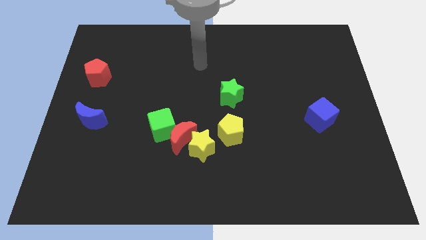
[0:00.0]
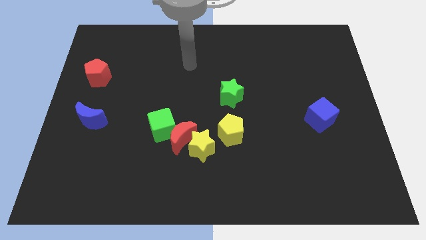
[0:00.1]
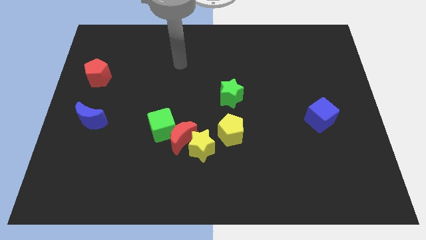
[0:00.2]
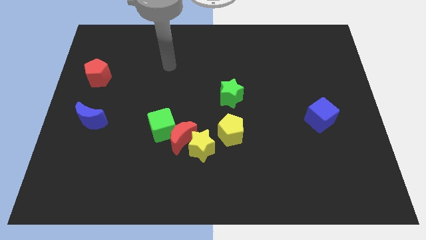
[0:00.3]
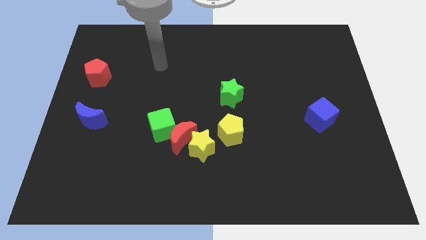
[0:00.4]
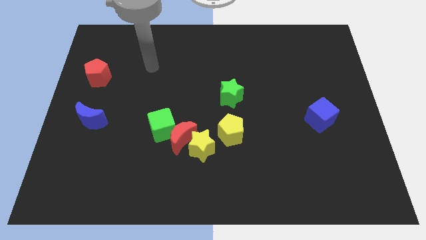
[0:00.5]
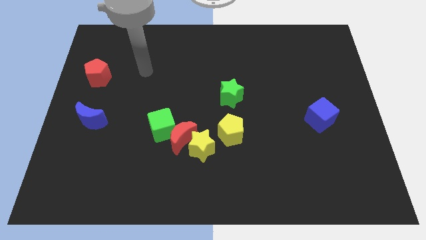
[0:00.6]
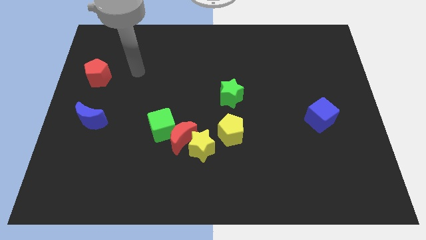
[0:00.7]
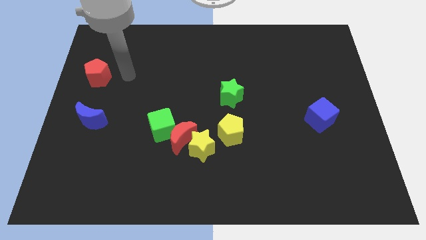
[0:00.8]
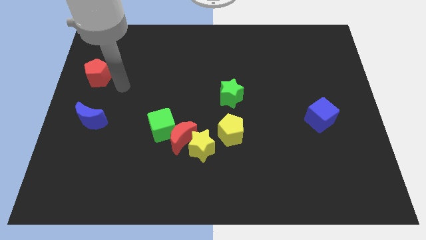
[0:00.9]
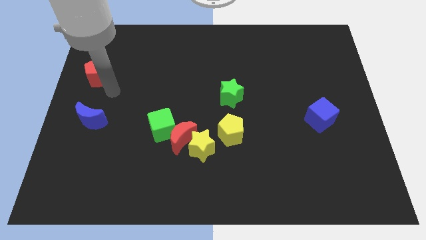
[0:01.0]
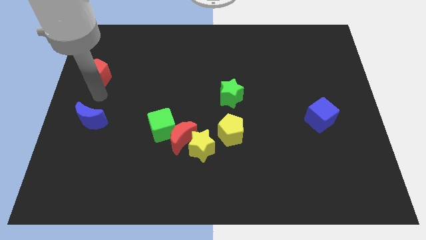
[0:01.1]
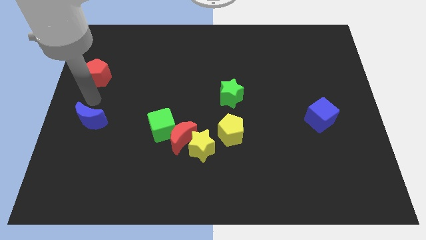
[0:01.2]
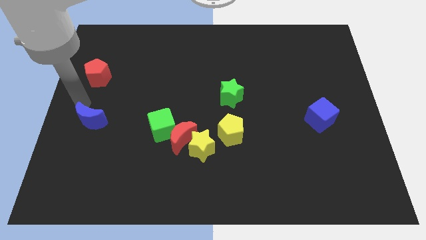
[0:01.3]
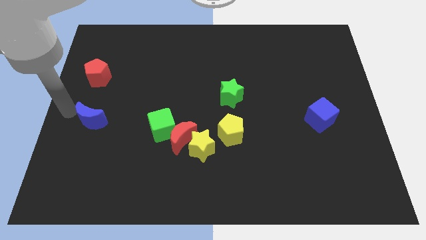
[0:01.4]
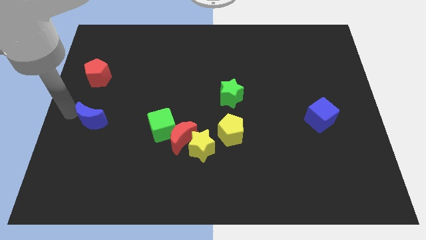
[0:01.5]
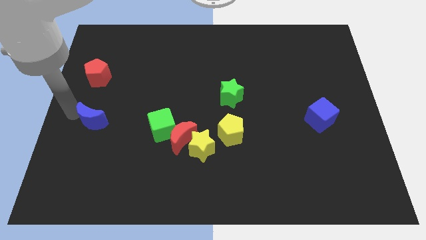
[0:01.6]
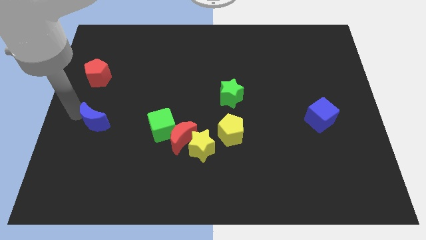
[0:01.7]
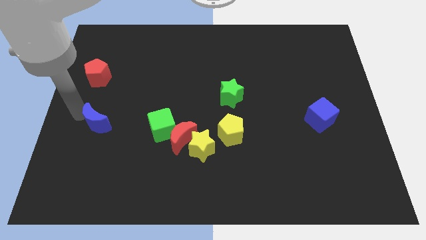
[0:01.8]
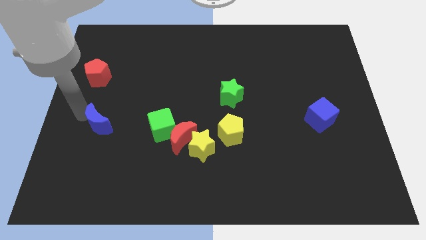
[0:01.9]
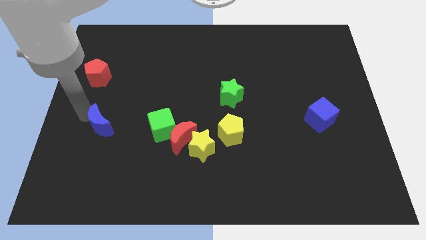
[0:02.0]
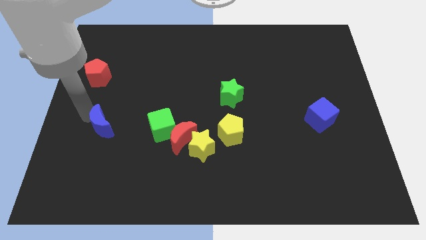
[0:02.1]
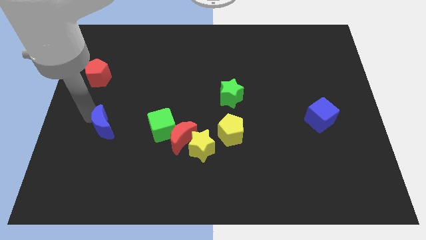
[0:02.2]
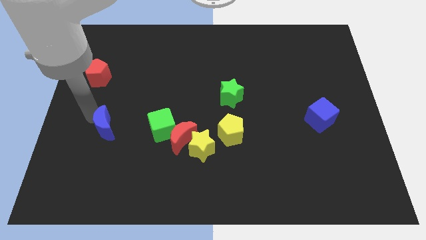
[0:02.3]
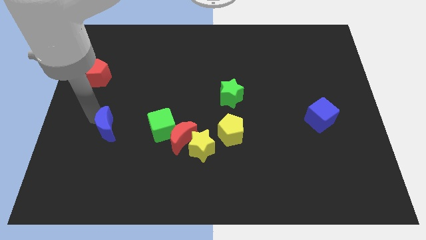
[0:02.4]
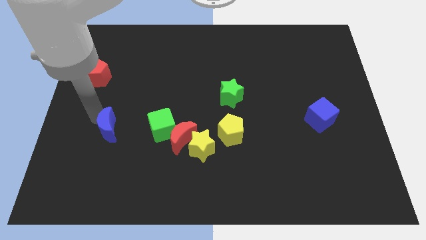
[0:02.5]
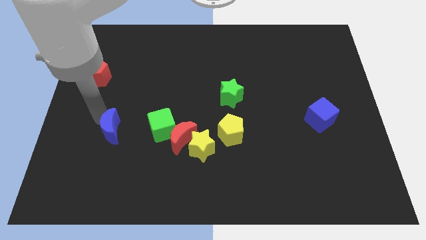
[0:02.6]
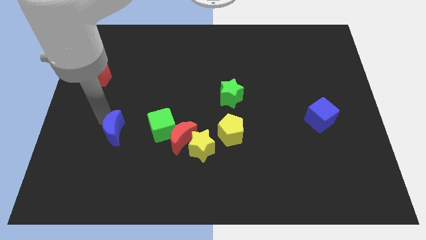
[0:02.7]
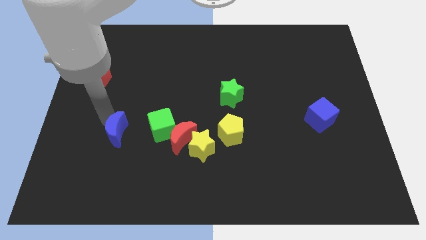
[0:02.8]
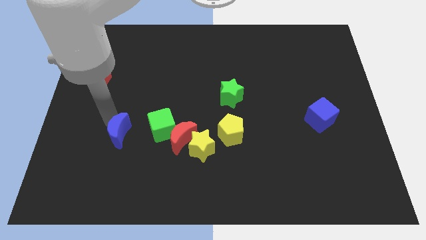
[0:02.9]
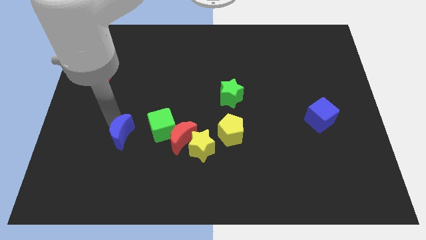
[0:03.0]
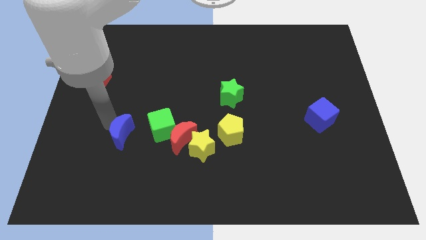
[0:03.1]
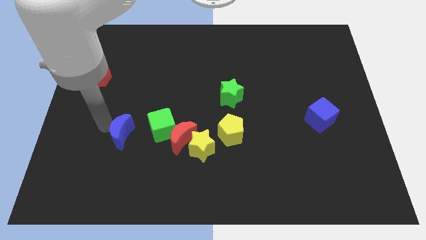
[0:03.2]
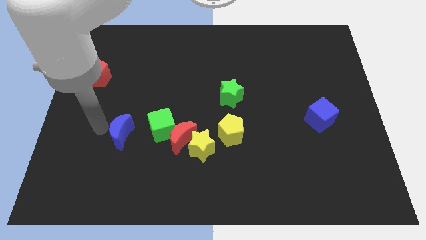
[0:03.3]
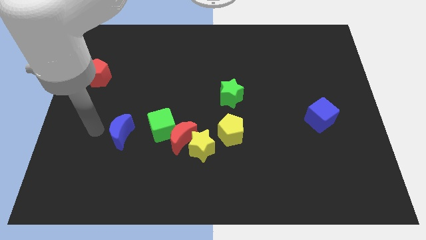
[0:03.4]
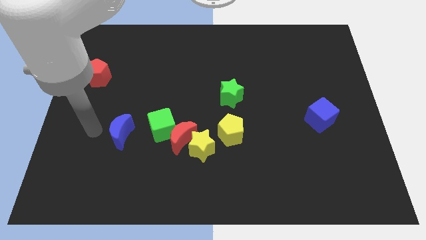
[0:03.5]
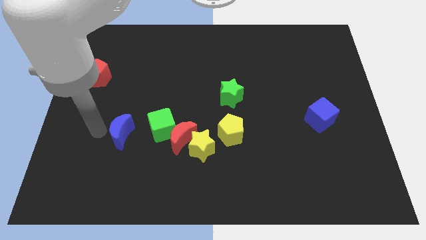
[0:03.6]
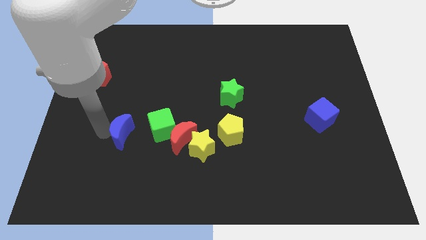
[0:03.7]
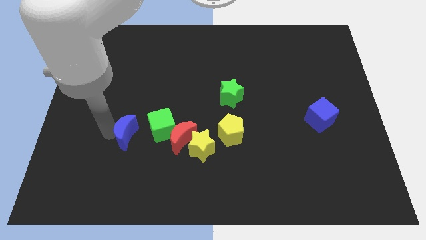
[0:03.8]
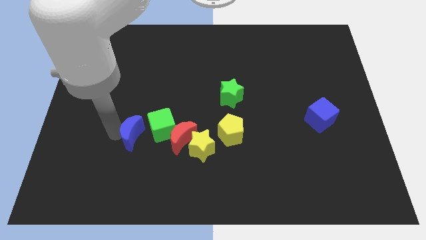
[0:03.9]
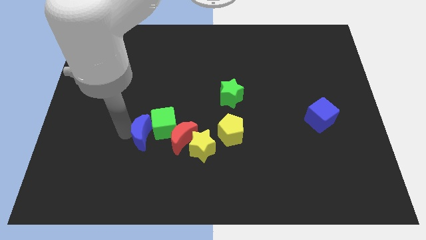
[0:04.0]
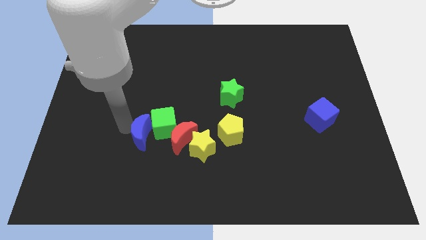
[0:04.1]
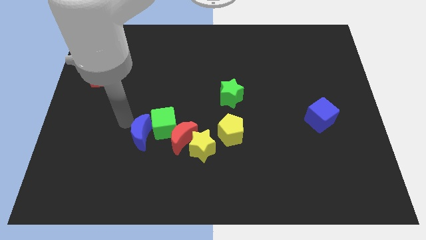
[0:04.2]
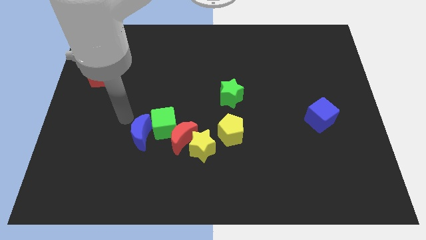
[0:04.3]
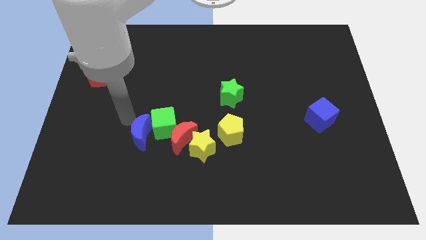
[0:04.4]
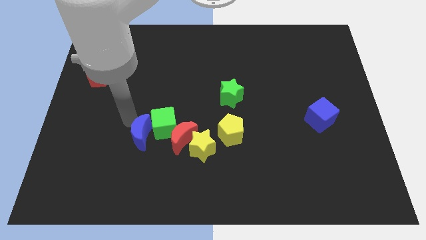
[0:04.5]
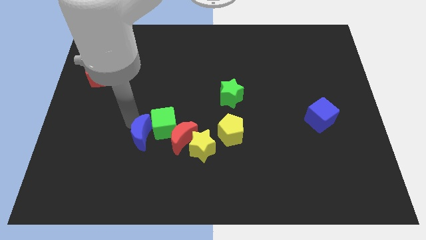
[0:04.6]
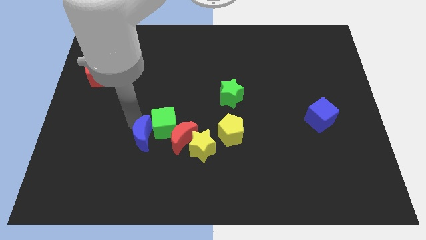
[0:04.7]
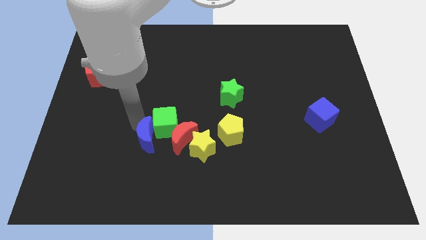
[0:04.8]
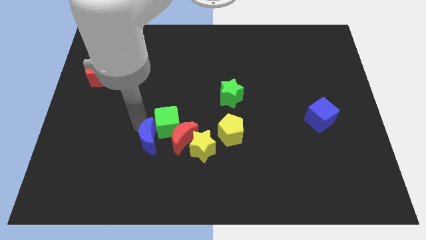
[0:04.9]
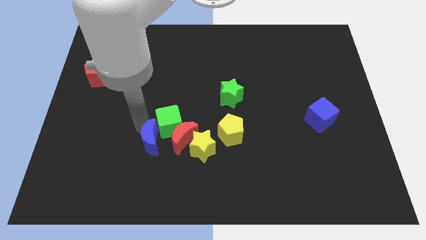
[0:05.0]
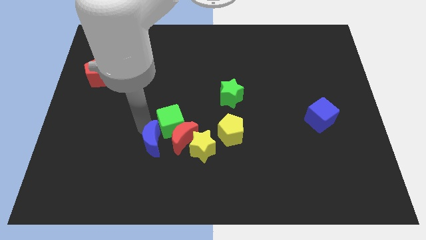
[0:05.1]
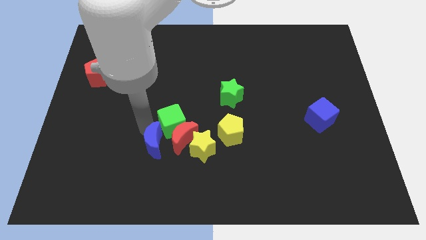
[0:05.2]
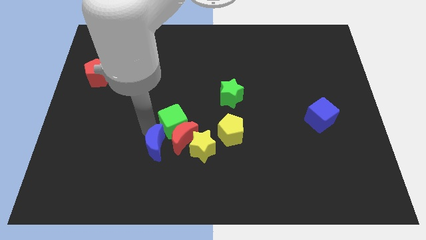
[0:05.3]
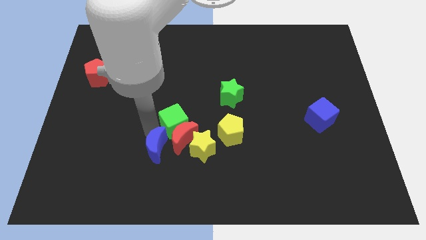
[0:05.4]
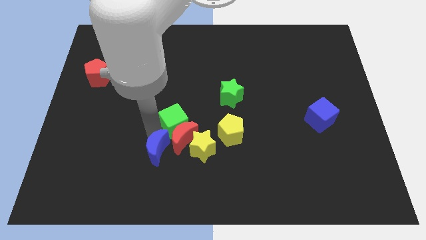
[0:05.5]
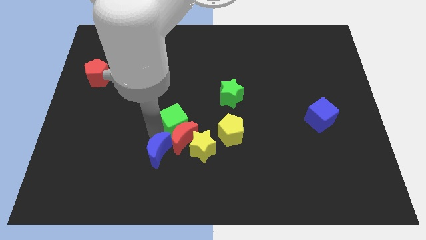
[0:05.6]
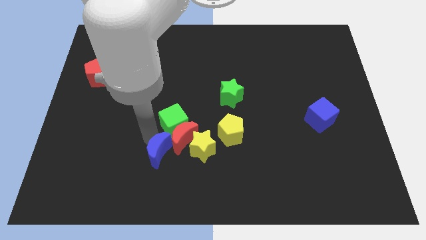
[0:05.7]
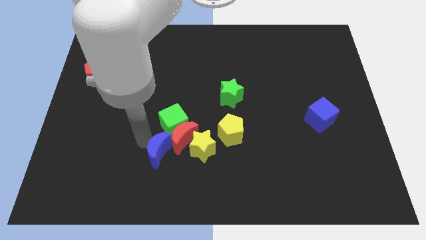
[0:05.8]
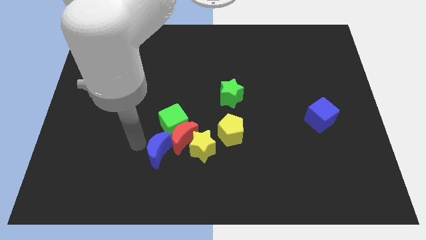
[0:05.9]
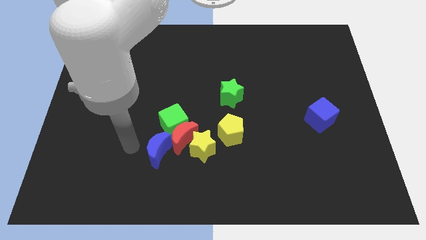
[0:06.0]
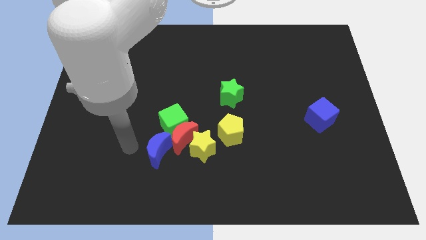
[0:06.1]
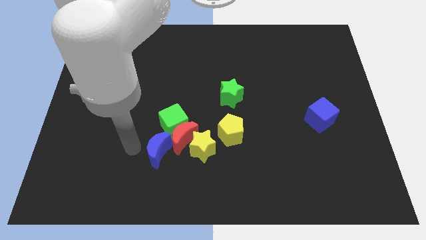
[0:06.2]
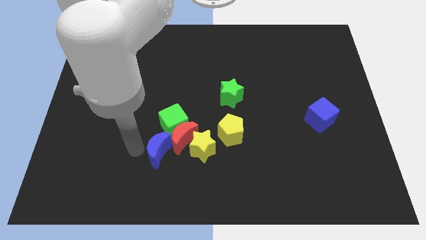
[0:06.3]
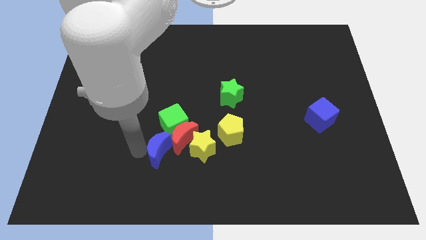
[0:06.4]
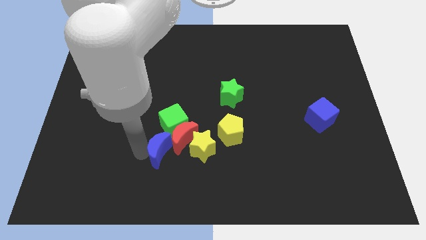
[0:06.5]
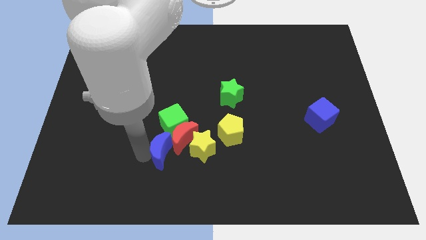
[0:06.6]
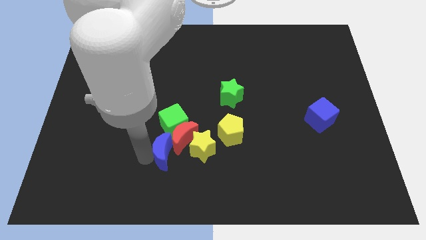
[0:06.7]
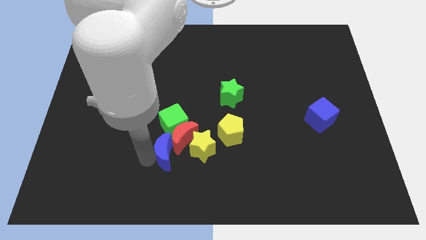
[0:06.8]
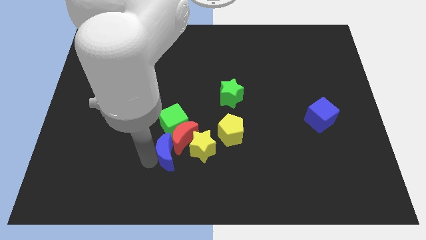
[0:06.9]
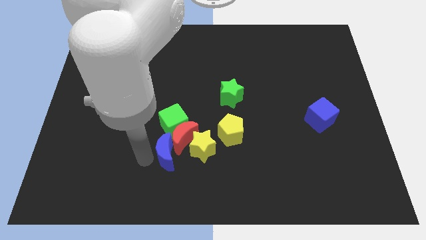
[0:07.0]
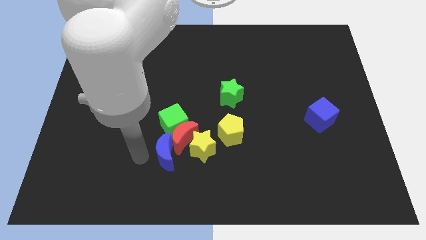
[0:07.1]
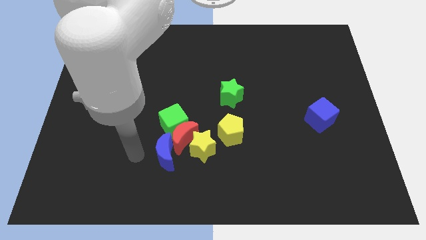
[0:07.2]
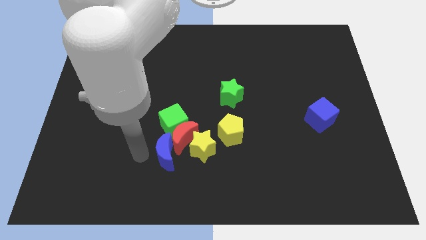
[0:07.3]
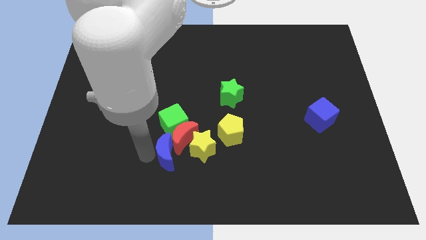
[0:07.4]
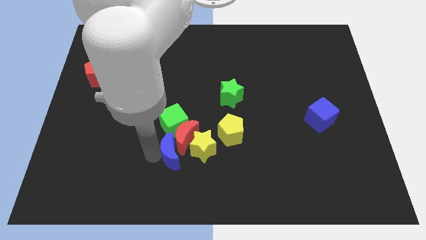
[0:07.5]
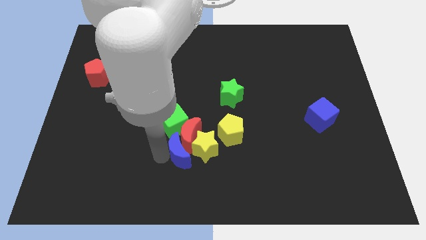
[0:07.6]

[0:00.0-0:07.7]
put the blue moon to the yellow star

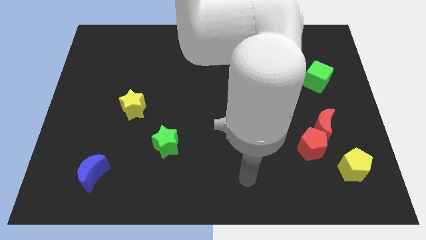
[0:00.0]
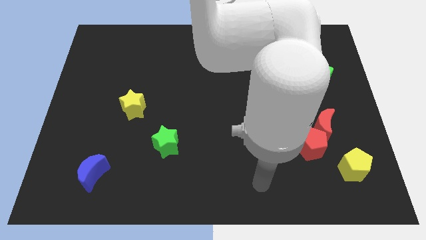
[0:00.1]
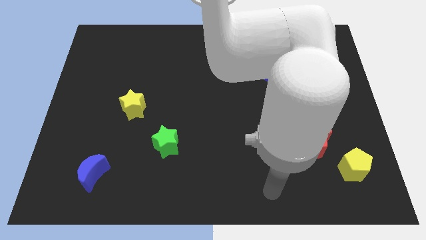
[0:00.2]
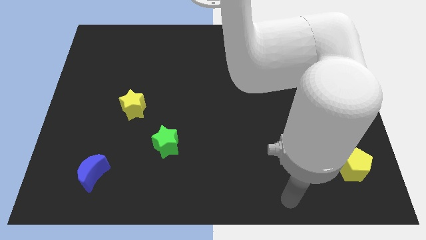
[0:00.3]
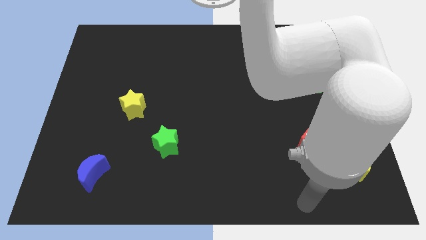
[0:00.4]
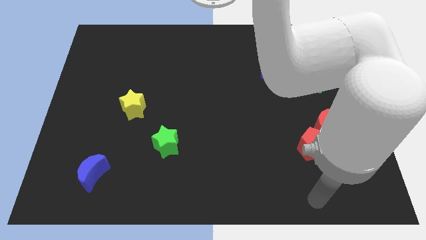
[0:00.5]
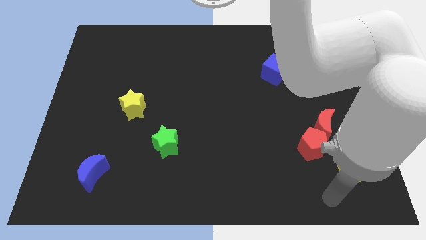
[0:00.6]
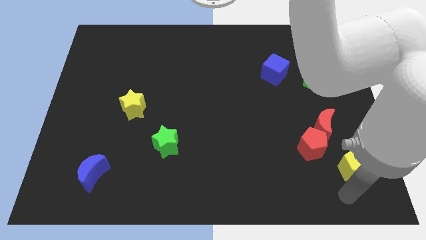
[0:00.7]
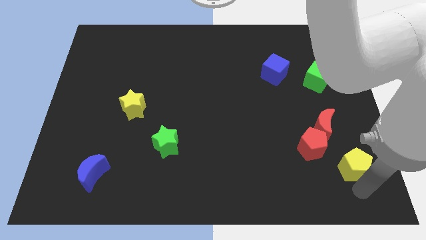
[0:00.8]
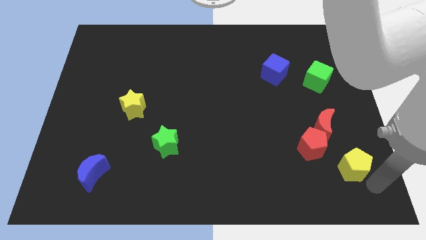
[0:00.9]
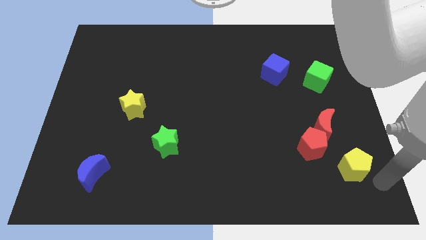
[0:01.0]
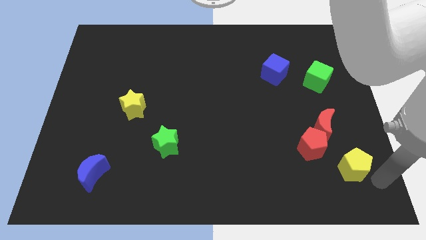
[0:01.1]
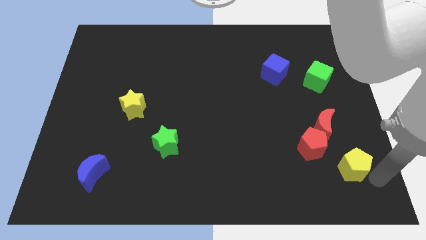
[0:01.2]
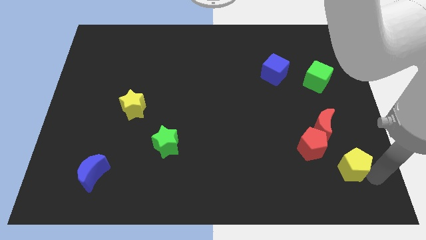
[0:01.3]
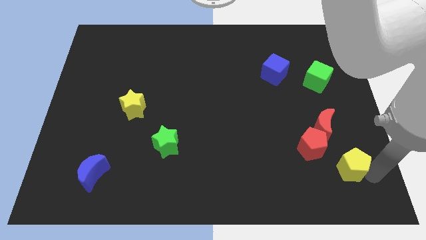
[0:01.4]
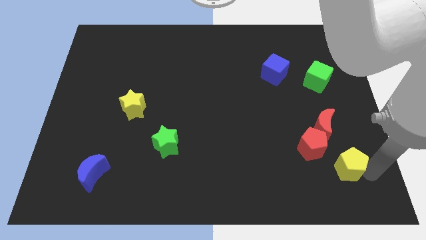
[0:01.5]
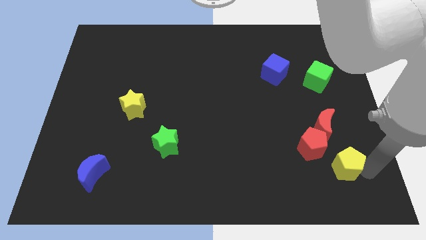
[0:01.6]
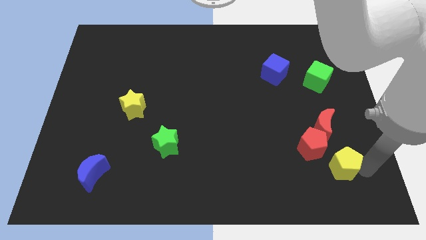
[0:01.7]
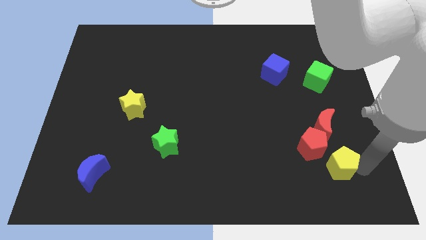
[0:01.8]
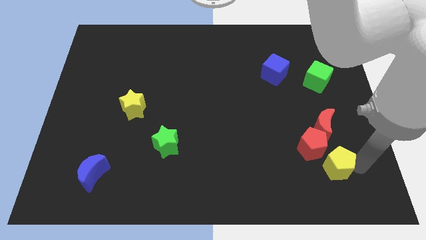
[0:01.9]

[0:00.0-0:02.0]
push the yellow pentagon next to the red pentagon
